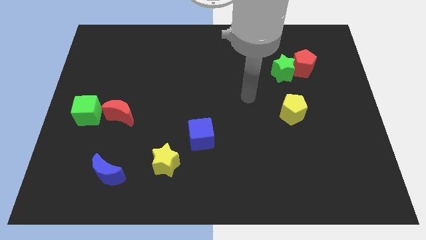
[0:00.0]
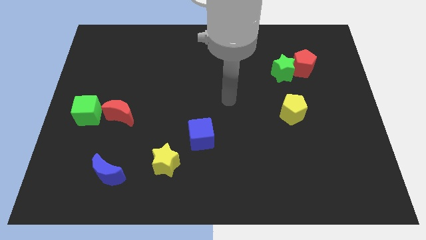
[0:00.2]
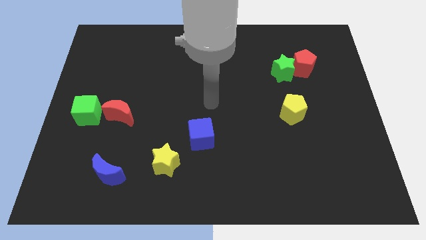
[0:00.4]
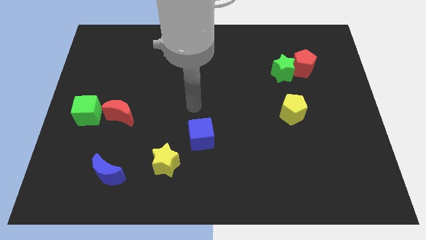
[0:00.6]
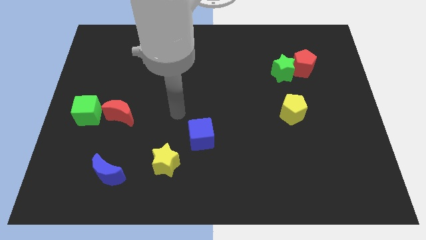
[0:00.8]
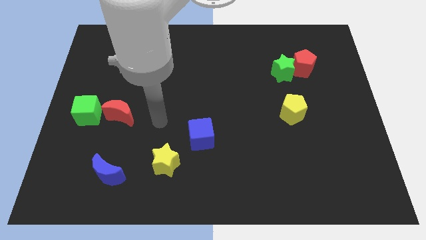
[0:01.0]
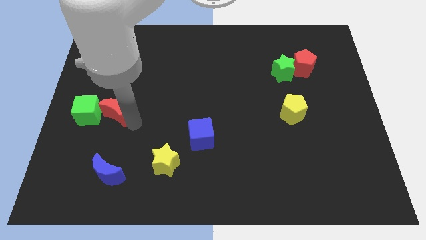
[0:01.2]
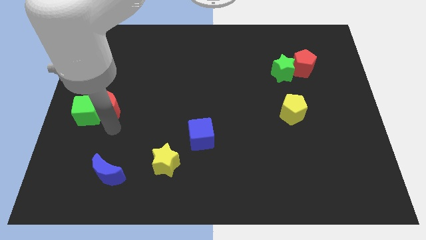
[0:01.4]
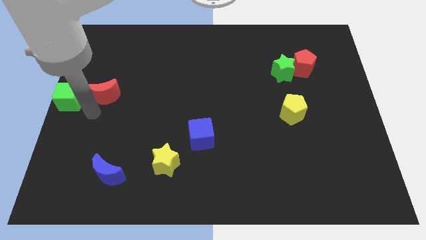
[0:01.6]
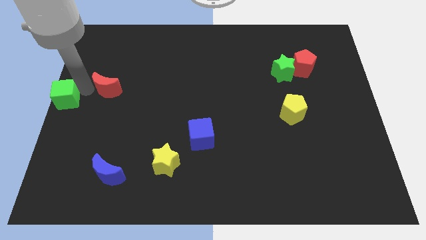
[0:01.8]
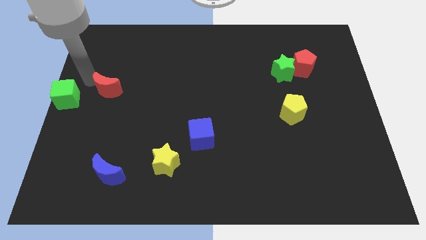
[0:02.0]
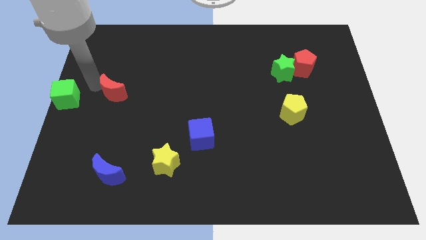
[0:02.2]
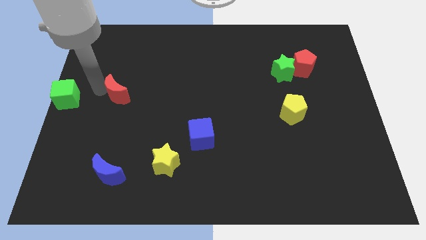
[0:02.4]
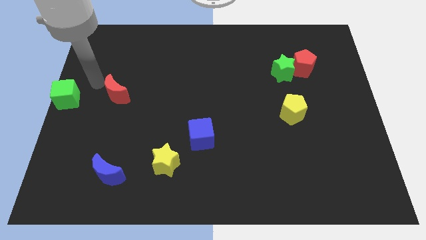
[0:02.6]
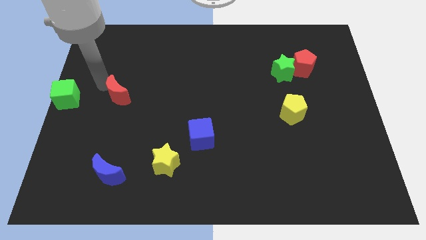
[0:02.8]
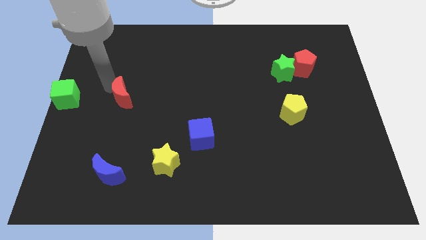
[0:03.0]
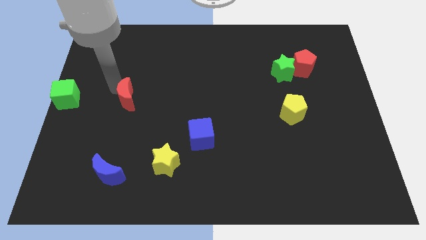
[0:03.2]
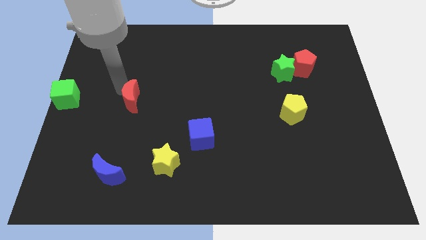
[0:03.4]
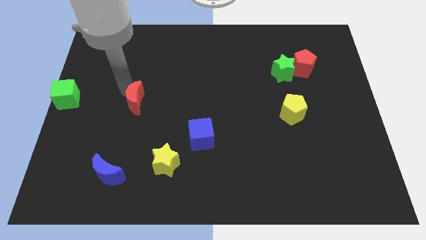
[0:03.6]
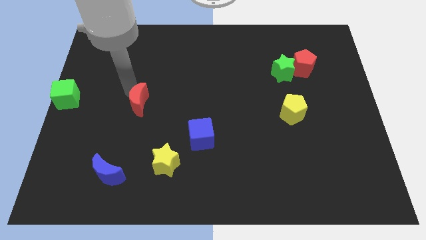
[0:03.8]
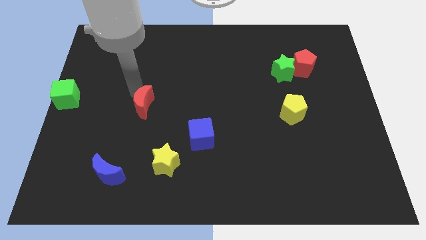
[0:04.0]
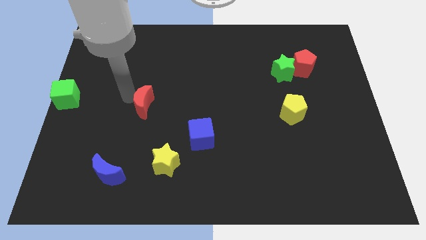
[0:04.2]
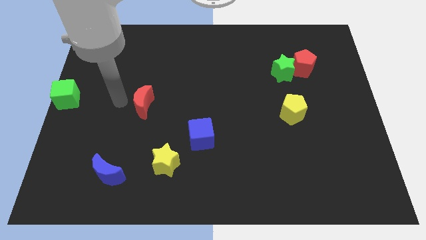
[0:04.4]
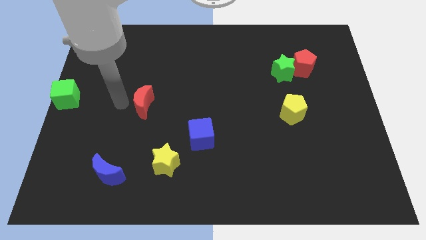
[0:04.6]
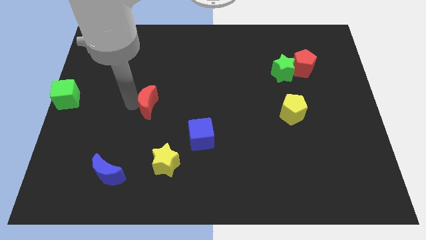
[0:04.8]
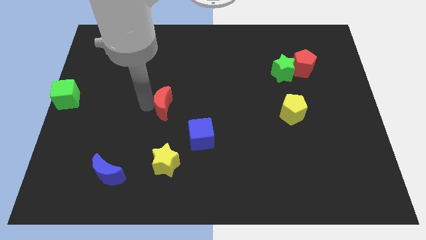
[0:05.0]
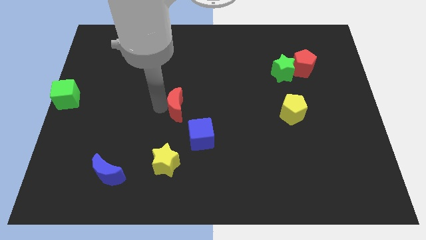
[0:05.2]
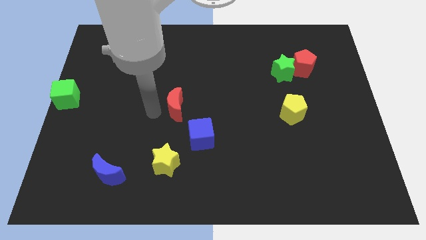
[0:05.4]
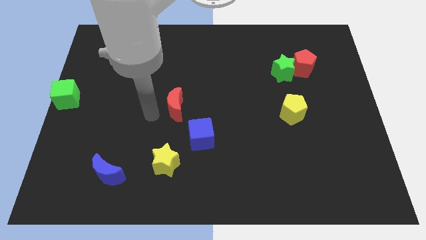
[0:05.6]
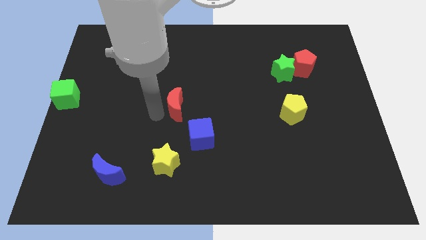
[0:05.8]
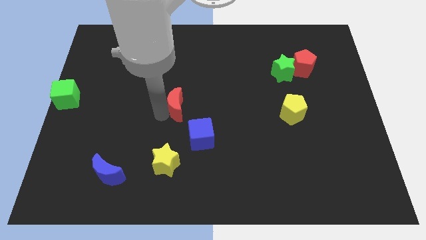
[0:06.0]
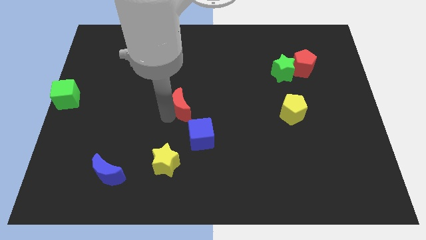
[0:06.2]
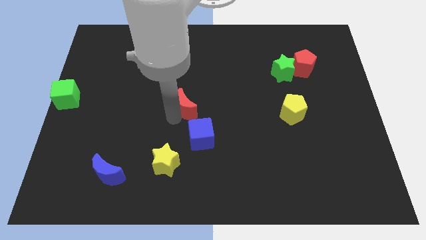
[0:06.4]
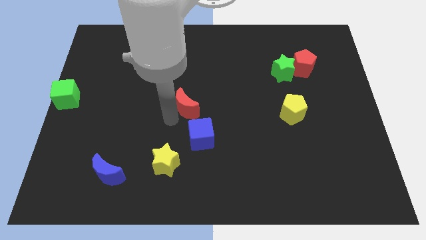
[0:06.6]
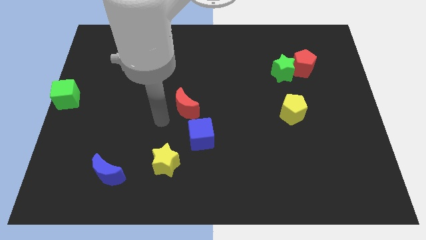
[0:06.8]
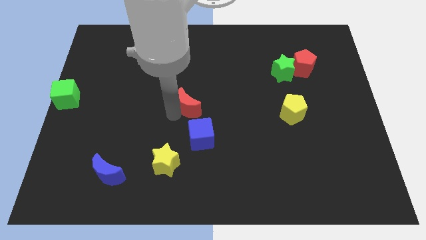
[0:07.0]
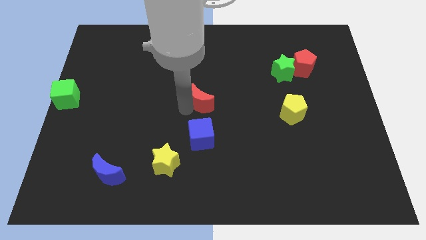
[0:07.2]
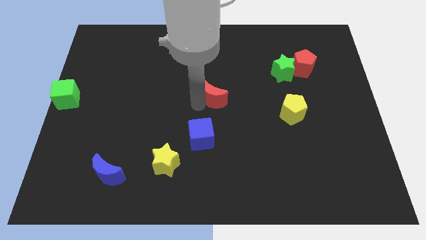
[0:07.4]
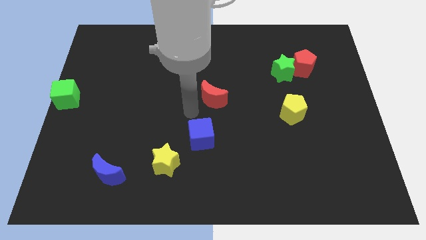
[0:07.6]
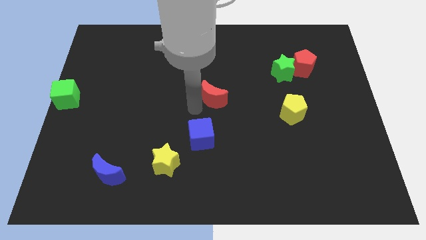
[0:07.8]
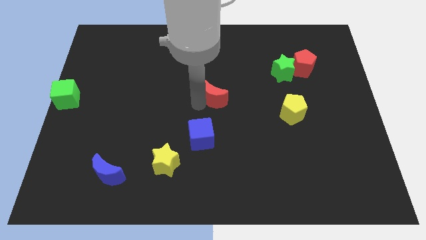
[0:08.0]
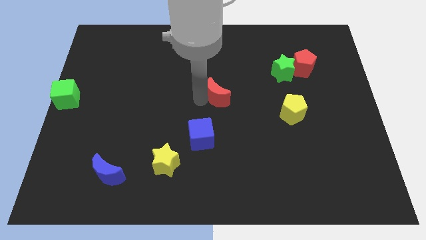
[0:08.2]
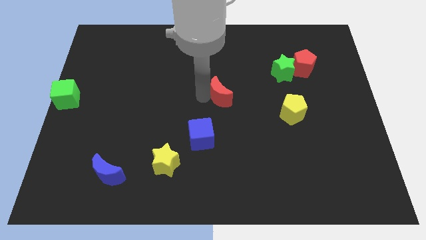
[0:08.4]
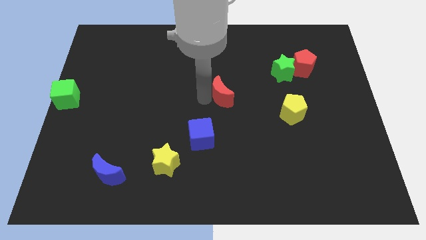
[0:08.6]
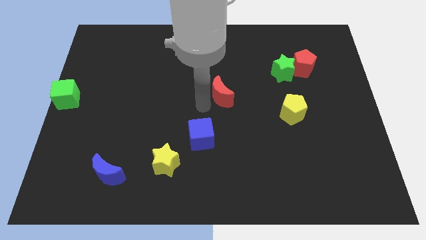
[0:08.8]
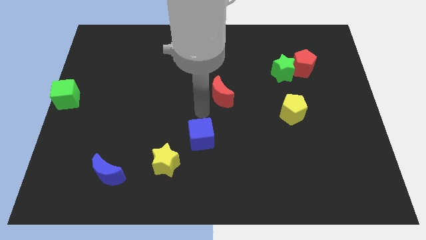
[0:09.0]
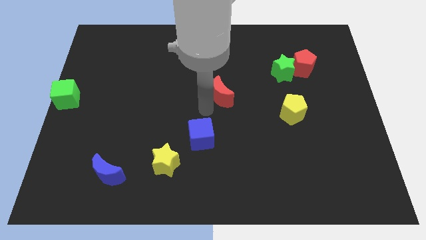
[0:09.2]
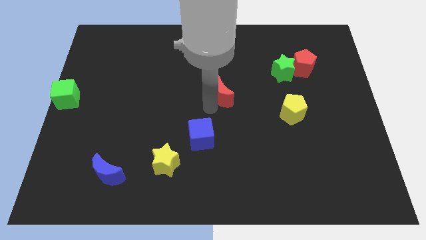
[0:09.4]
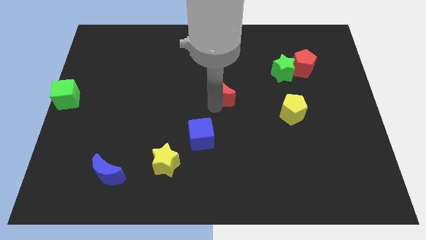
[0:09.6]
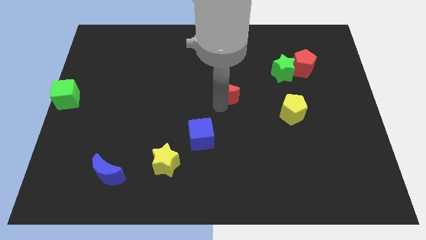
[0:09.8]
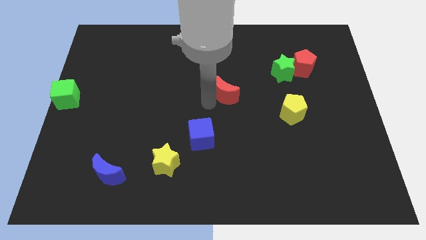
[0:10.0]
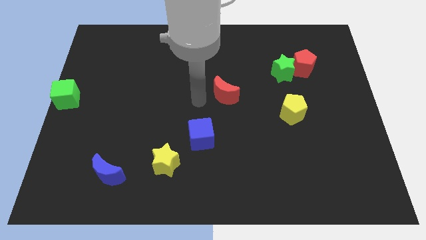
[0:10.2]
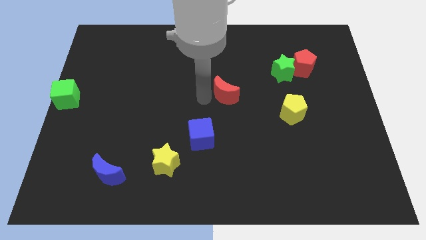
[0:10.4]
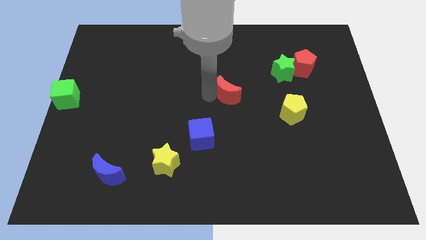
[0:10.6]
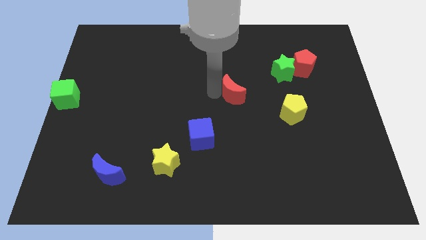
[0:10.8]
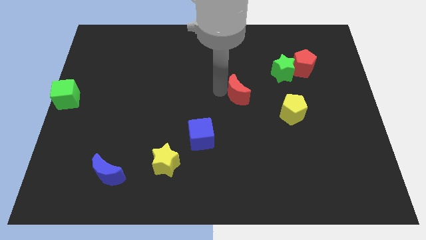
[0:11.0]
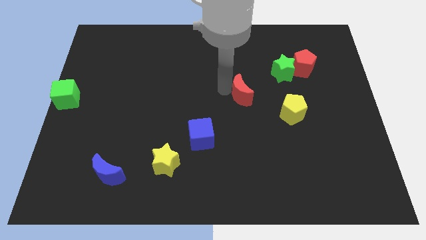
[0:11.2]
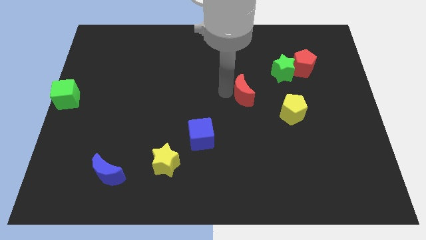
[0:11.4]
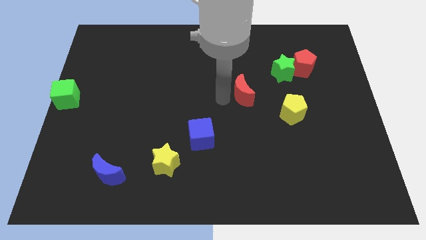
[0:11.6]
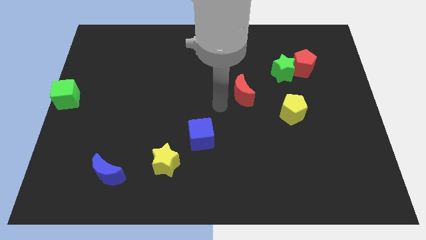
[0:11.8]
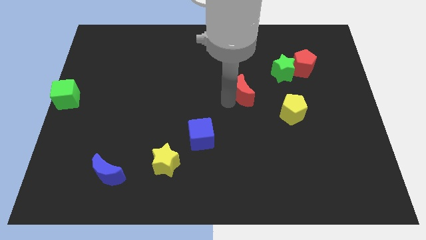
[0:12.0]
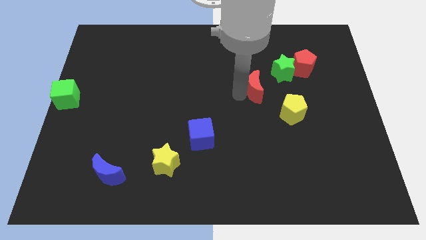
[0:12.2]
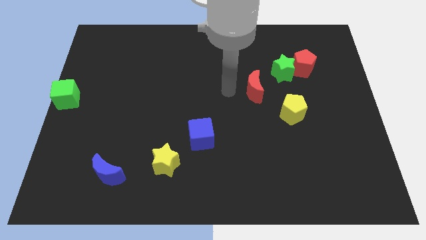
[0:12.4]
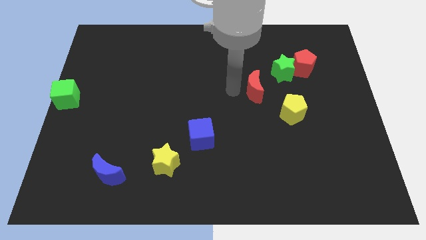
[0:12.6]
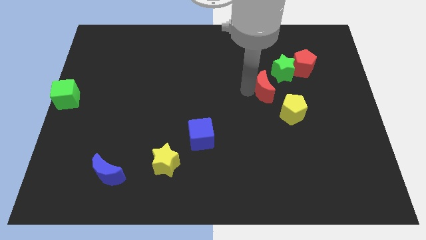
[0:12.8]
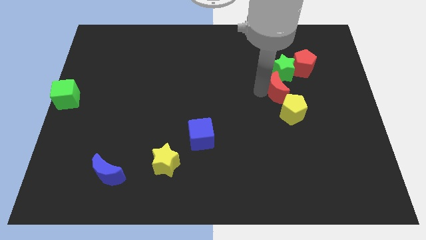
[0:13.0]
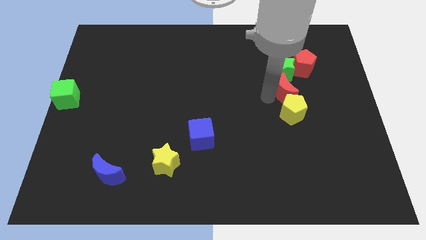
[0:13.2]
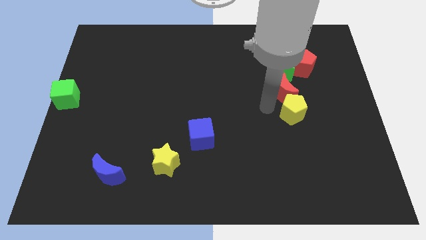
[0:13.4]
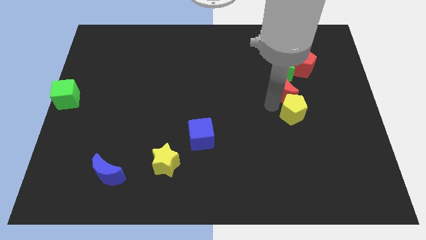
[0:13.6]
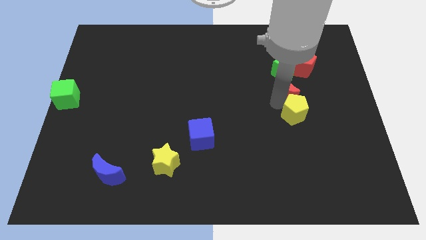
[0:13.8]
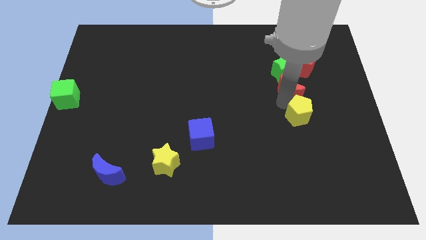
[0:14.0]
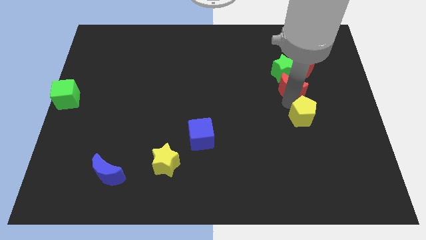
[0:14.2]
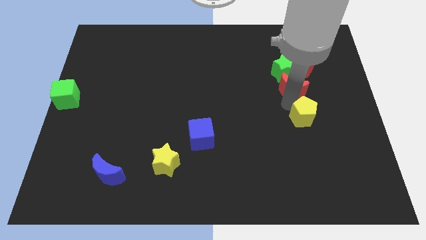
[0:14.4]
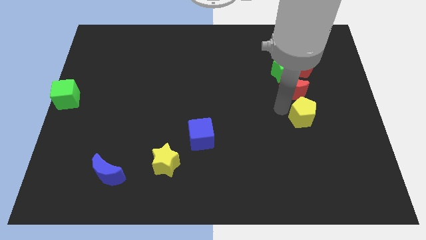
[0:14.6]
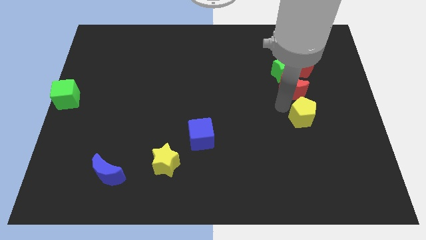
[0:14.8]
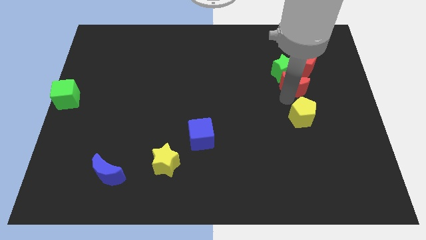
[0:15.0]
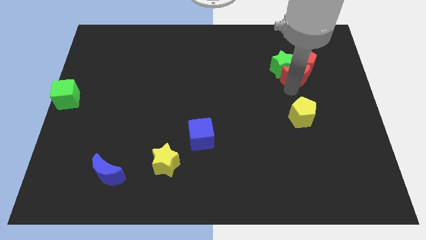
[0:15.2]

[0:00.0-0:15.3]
move the red moon next to the red pentagon
